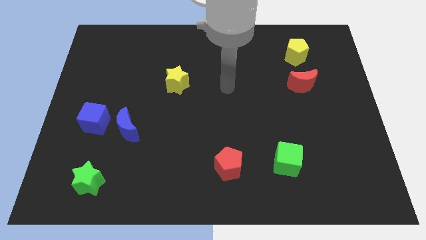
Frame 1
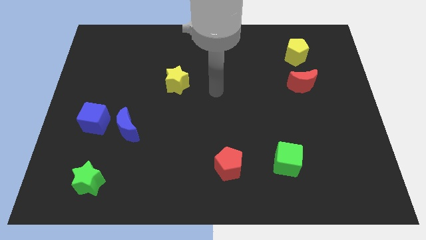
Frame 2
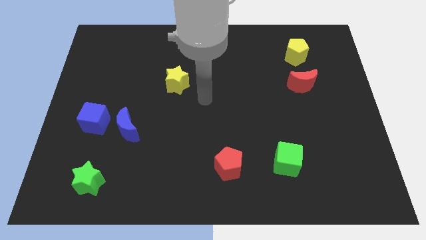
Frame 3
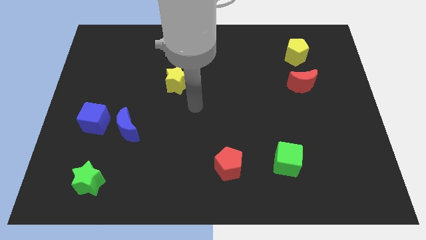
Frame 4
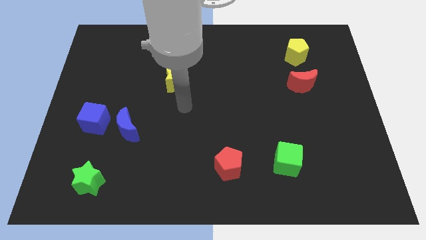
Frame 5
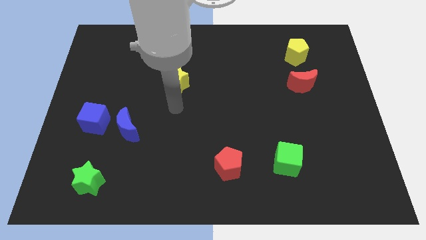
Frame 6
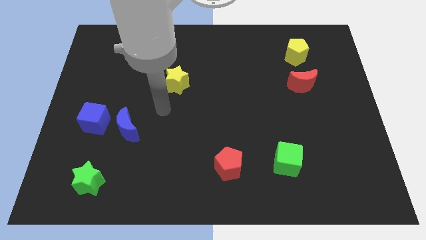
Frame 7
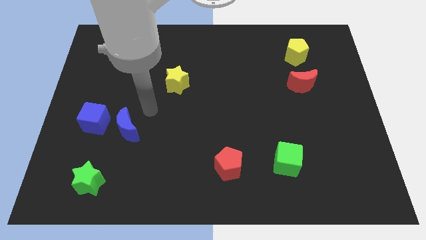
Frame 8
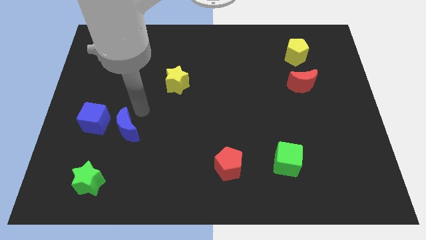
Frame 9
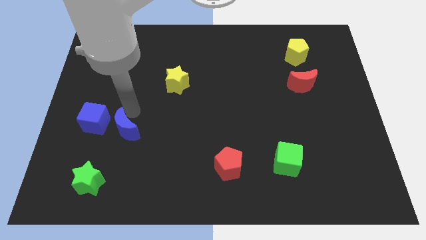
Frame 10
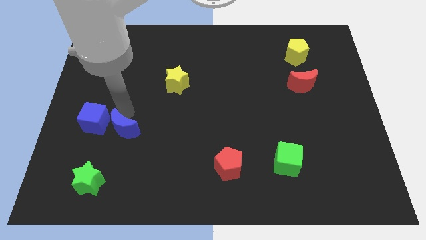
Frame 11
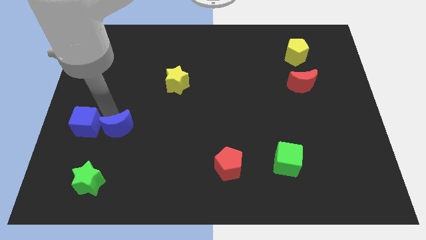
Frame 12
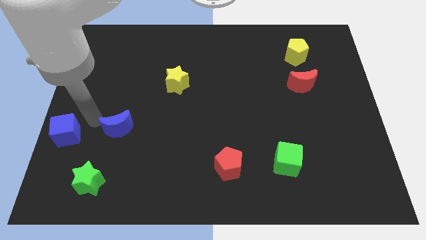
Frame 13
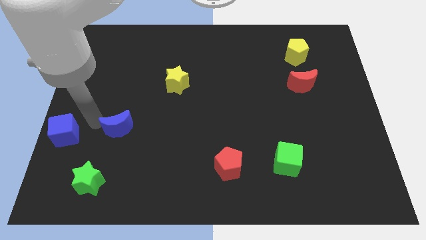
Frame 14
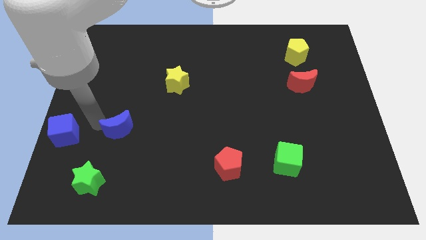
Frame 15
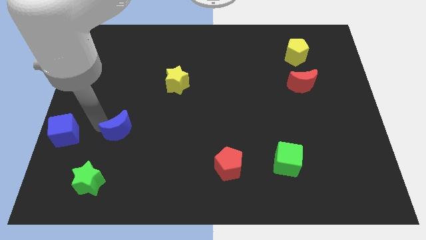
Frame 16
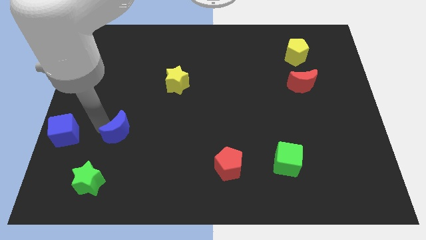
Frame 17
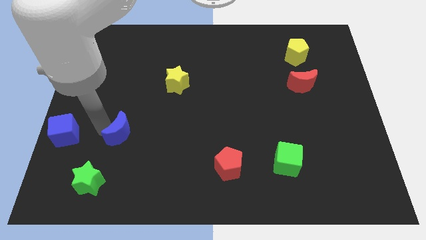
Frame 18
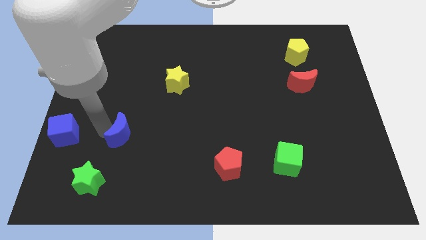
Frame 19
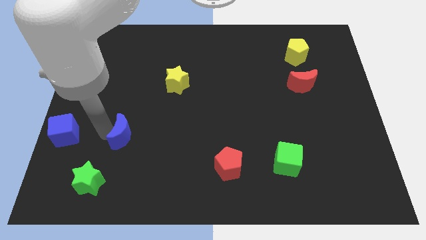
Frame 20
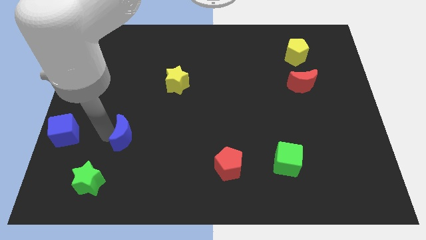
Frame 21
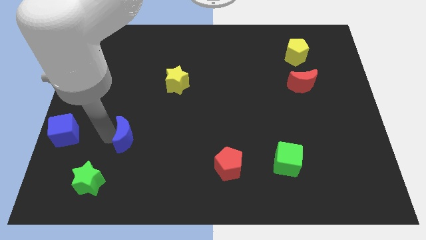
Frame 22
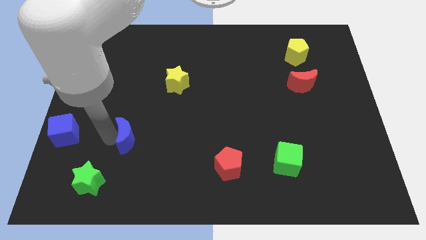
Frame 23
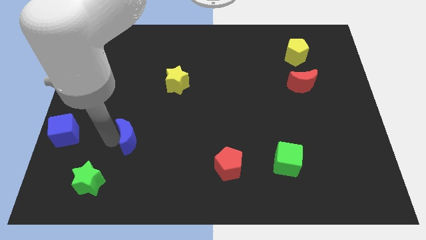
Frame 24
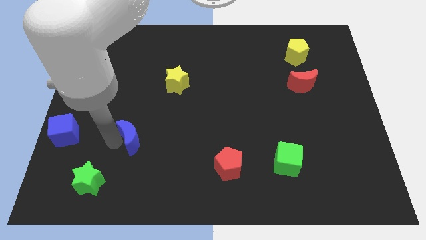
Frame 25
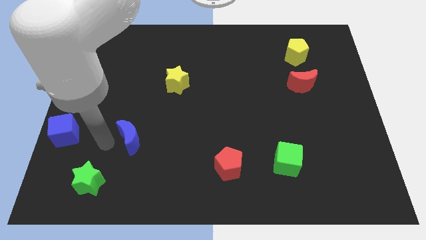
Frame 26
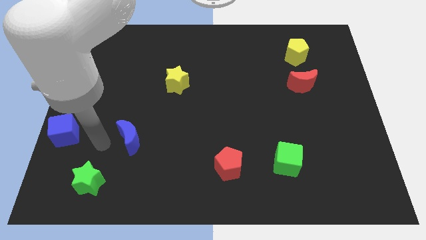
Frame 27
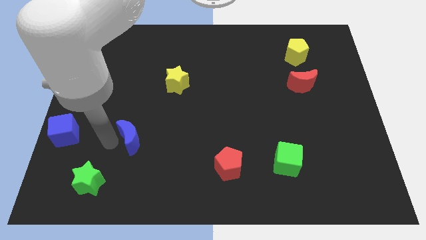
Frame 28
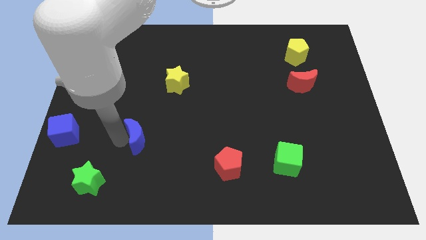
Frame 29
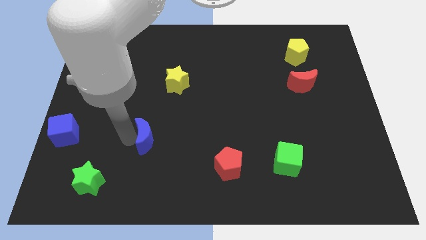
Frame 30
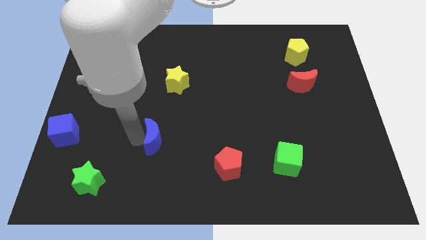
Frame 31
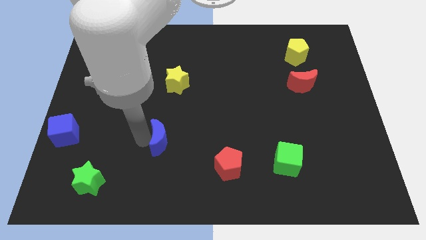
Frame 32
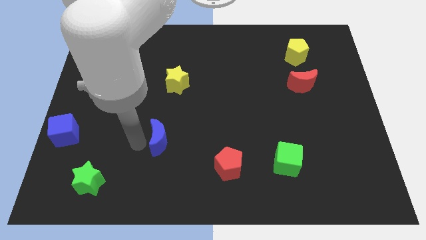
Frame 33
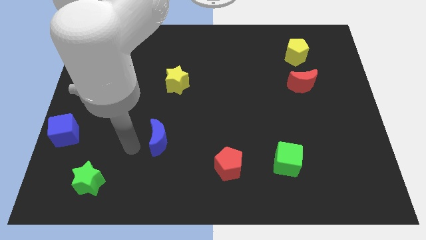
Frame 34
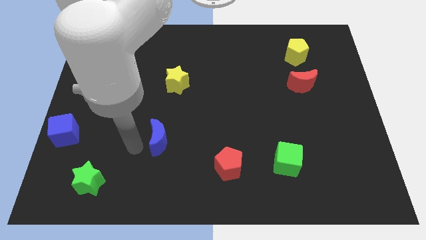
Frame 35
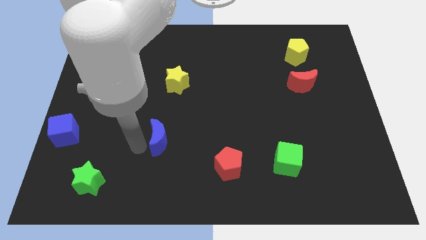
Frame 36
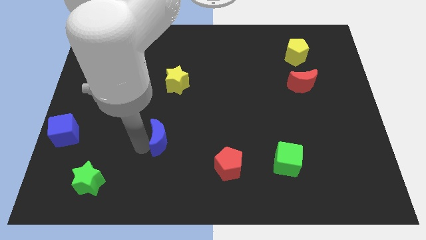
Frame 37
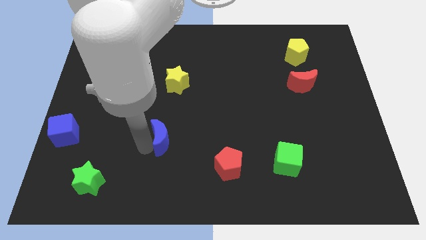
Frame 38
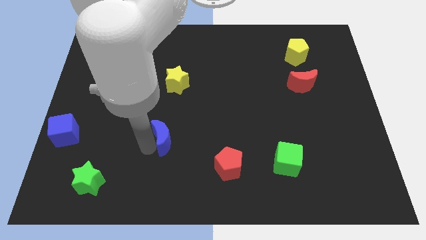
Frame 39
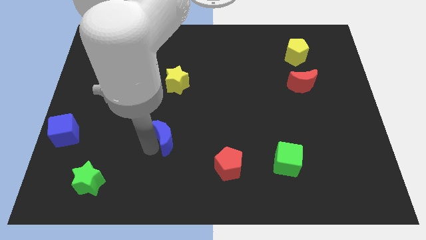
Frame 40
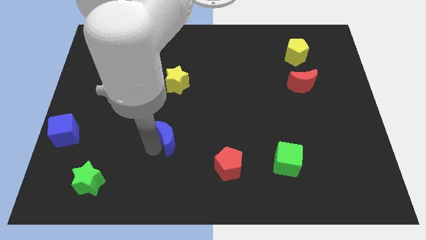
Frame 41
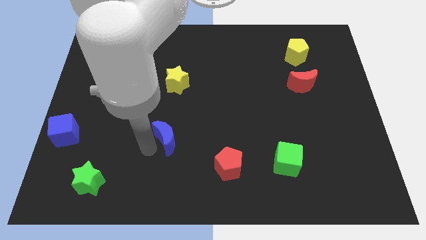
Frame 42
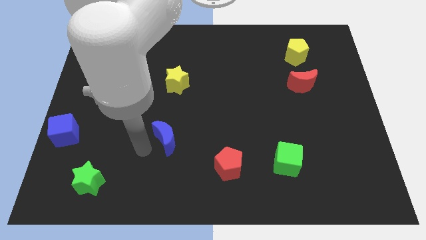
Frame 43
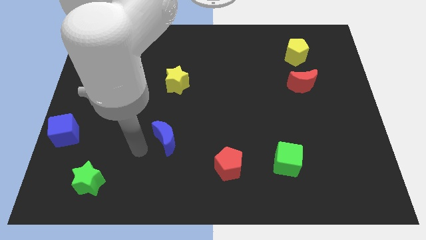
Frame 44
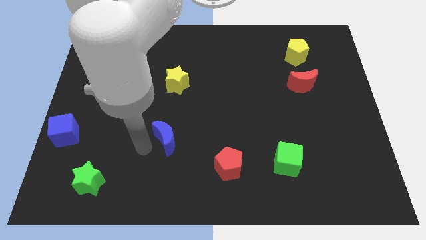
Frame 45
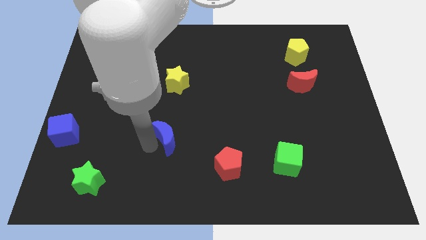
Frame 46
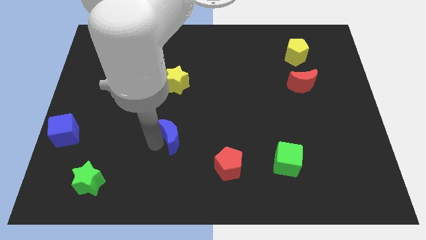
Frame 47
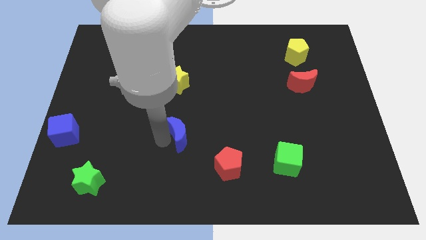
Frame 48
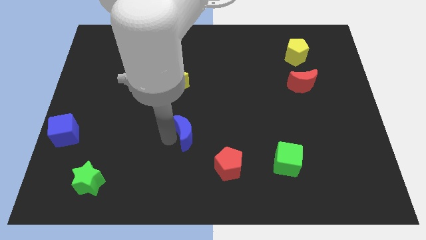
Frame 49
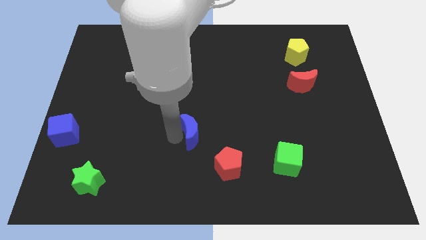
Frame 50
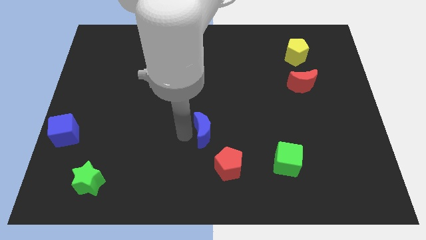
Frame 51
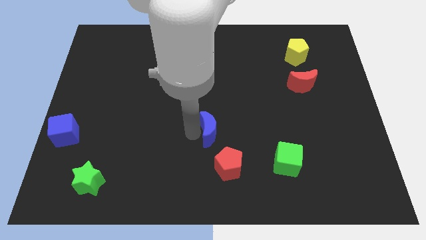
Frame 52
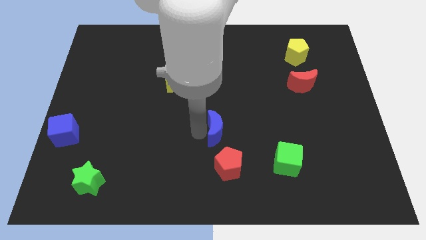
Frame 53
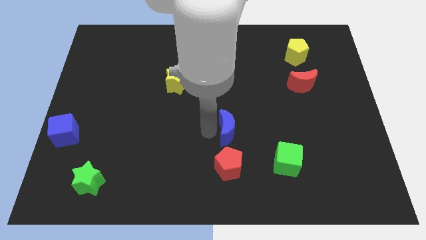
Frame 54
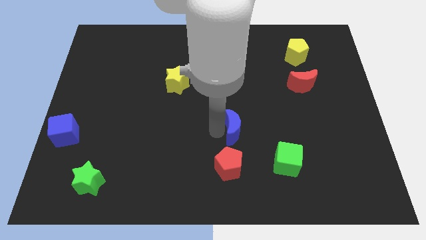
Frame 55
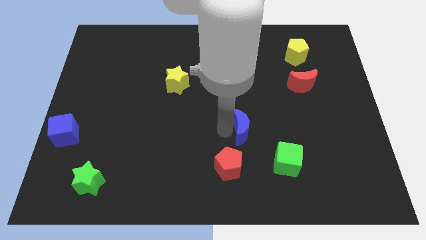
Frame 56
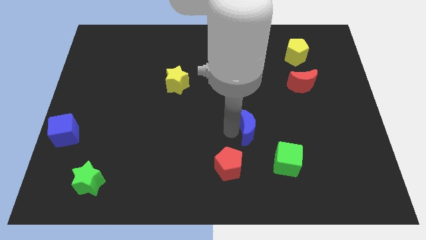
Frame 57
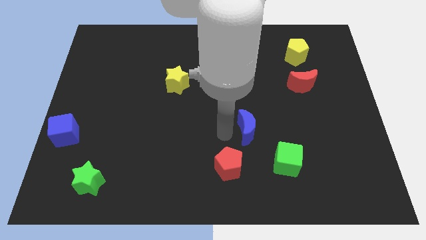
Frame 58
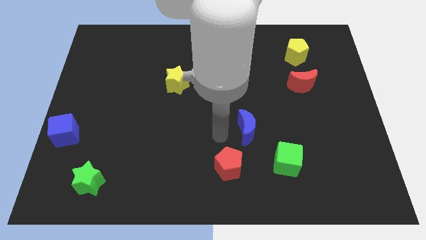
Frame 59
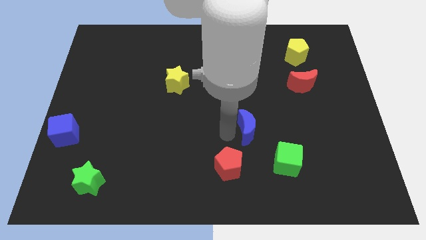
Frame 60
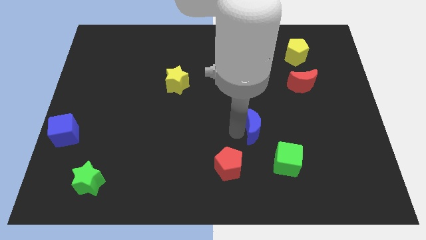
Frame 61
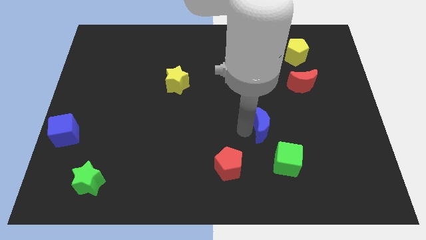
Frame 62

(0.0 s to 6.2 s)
slide the blue moon to the top side of the green cube
